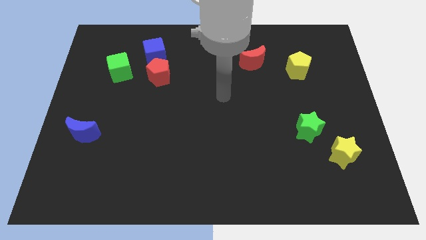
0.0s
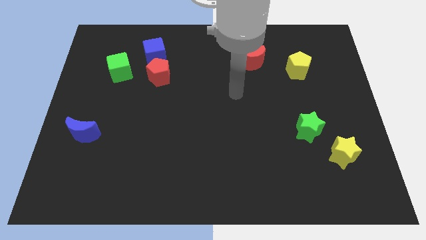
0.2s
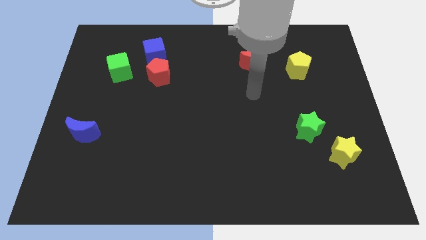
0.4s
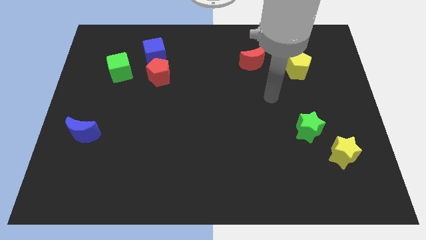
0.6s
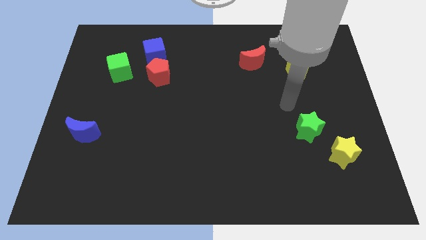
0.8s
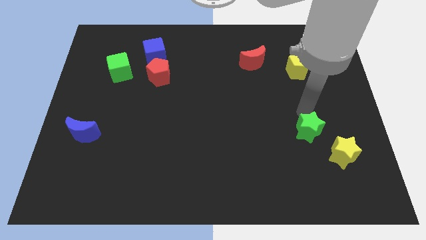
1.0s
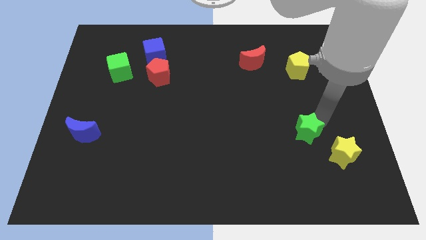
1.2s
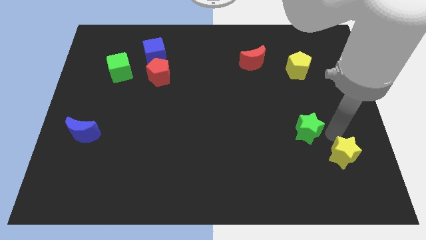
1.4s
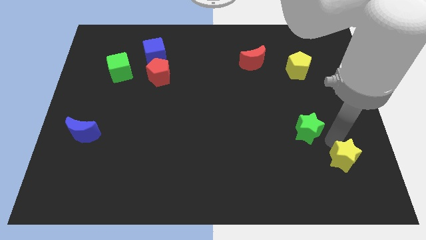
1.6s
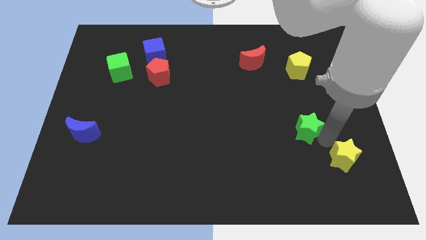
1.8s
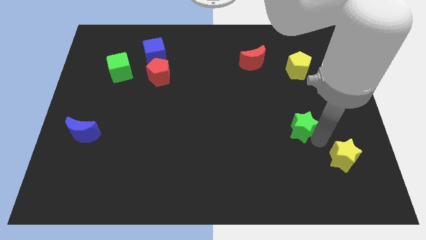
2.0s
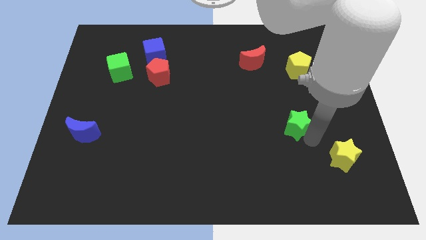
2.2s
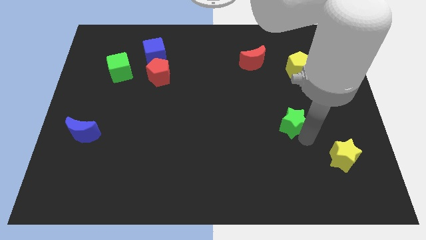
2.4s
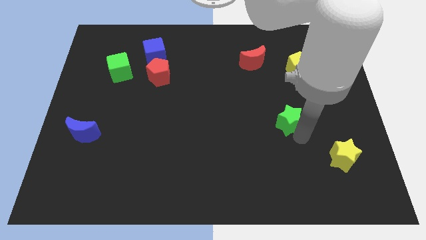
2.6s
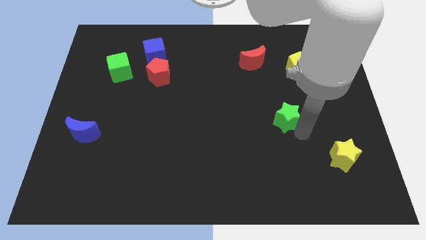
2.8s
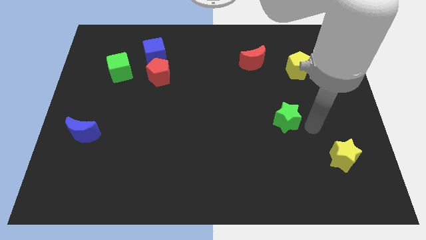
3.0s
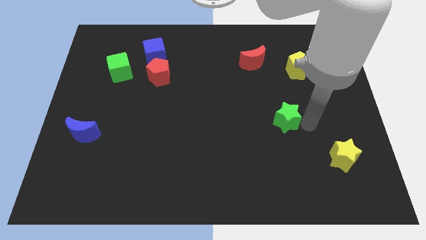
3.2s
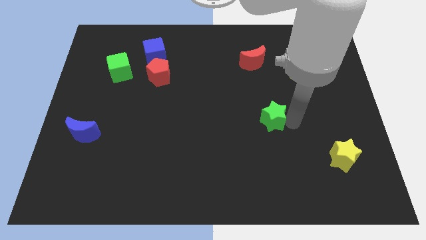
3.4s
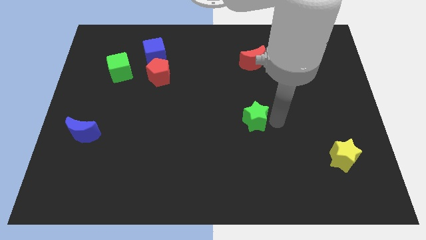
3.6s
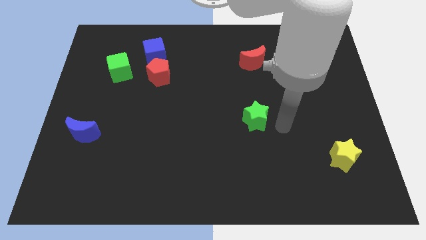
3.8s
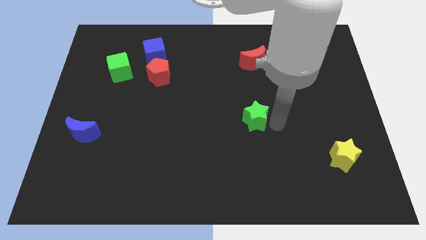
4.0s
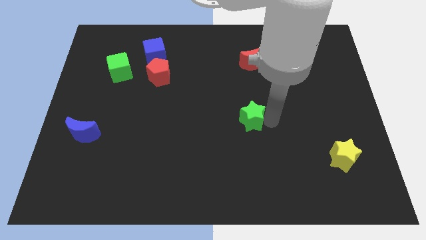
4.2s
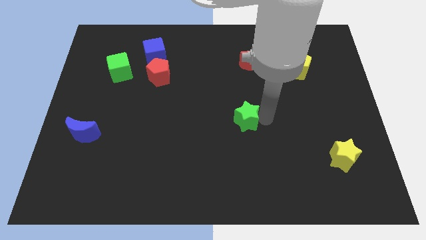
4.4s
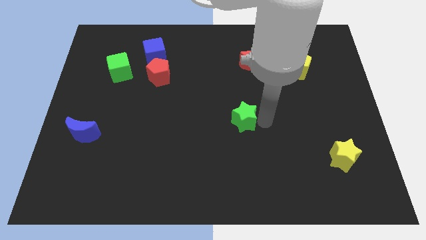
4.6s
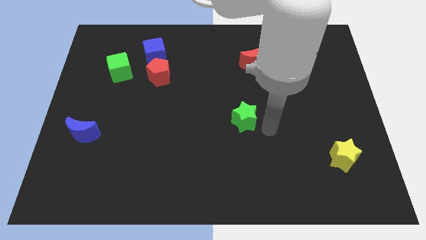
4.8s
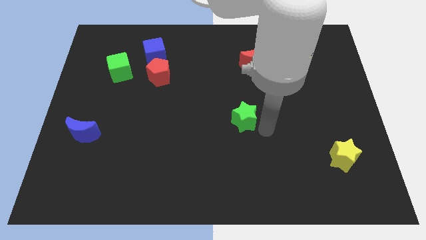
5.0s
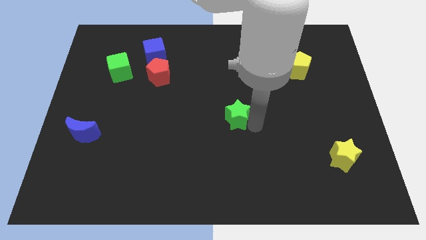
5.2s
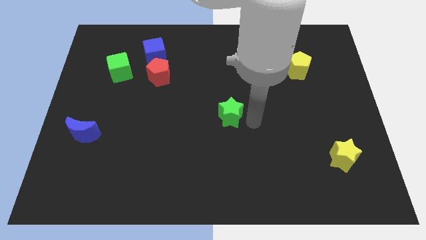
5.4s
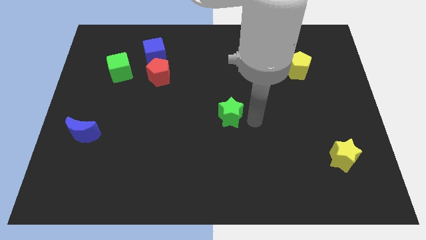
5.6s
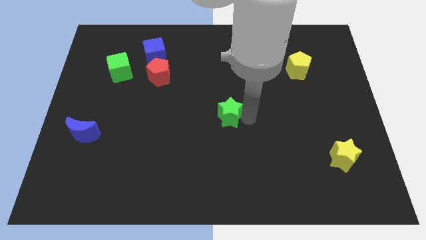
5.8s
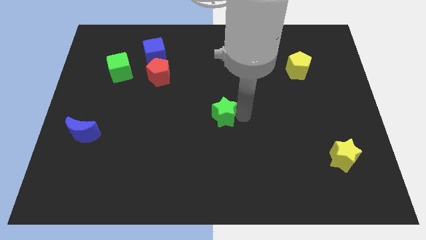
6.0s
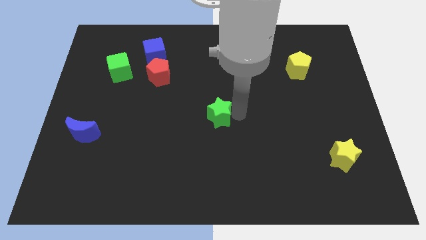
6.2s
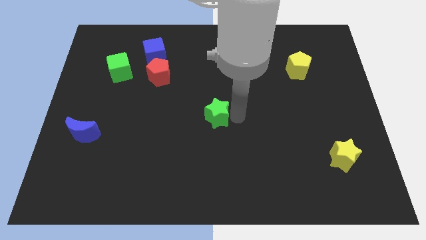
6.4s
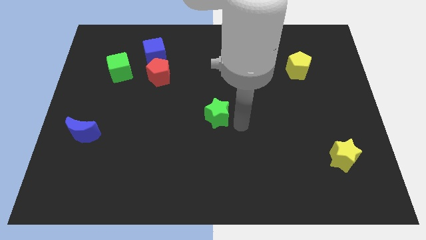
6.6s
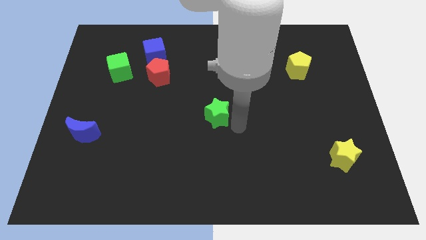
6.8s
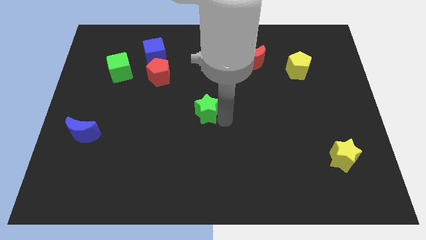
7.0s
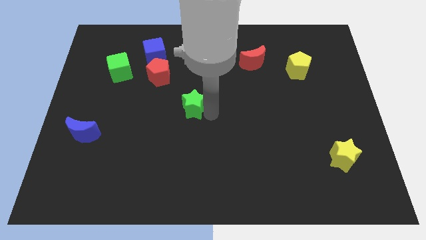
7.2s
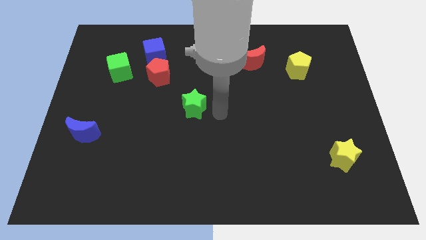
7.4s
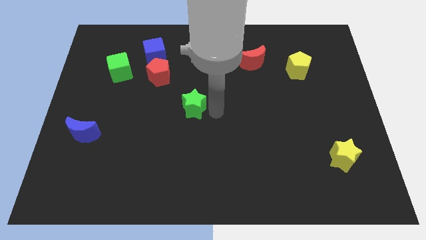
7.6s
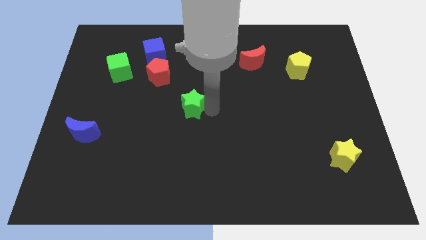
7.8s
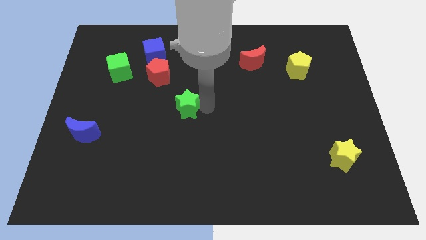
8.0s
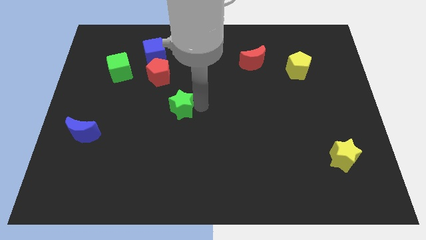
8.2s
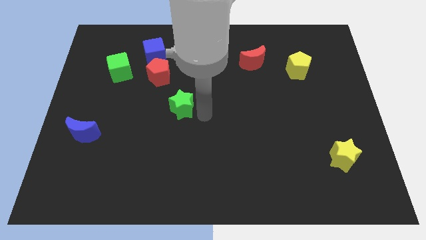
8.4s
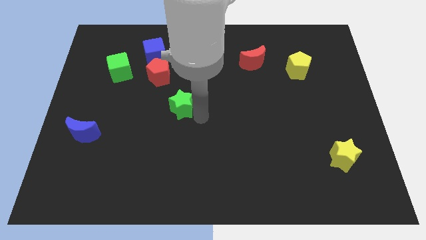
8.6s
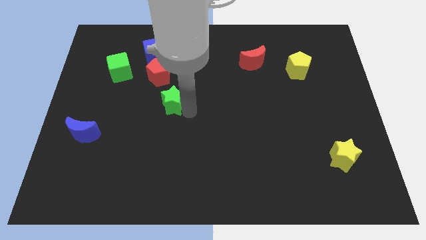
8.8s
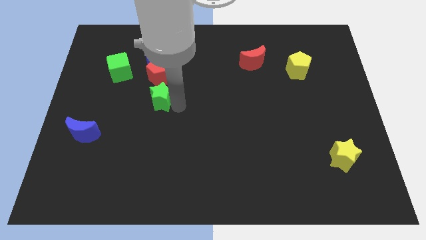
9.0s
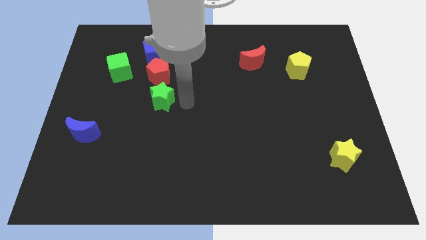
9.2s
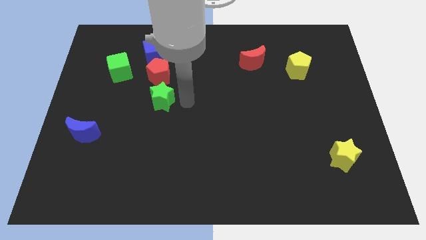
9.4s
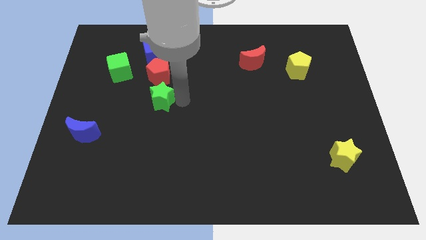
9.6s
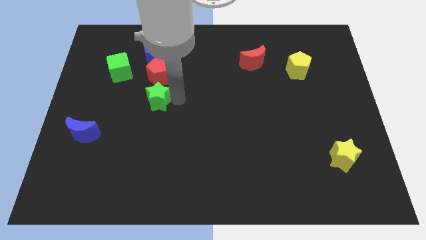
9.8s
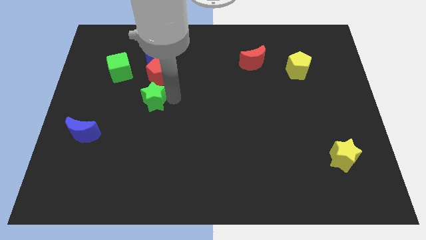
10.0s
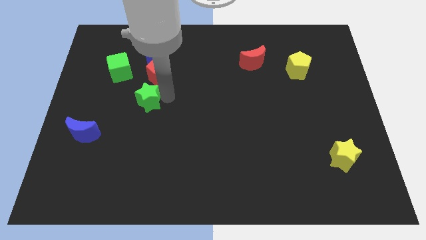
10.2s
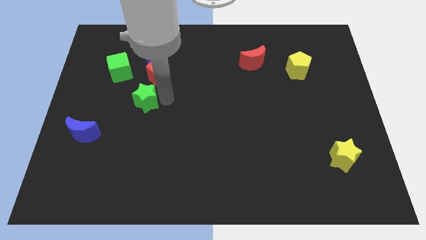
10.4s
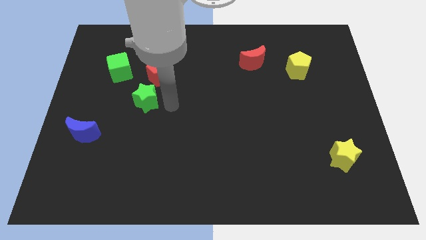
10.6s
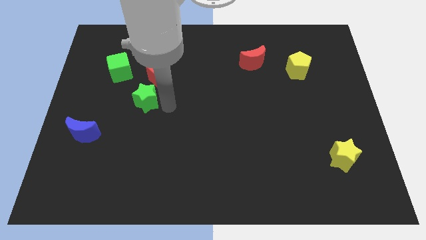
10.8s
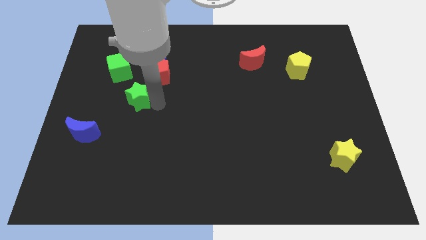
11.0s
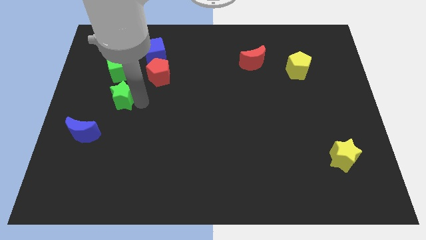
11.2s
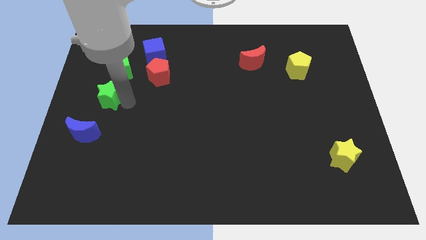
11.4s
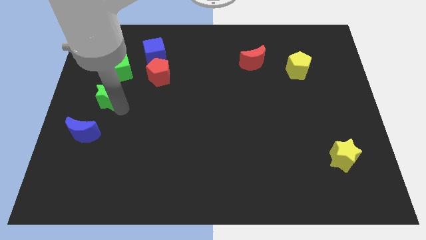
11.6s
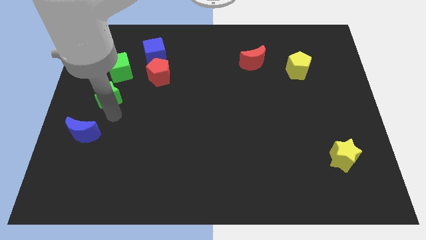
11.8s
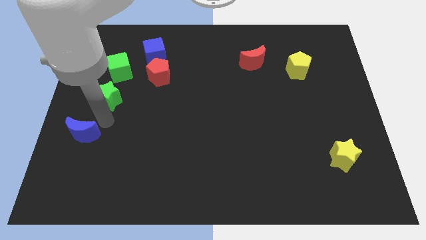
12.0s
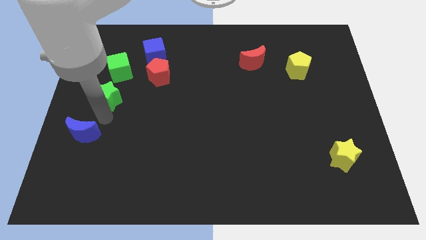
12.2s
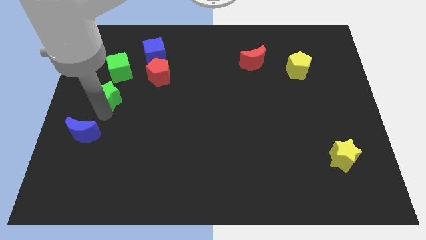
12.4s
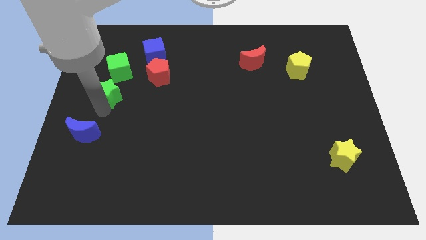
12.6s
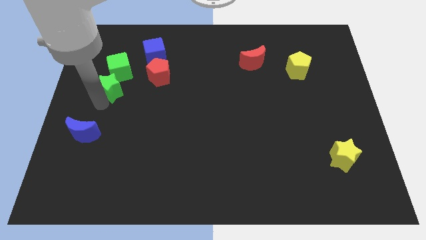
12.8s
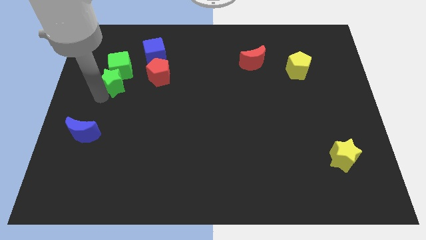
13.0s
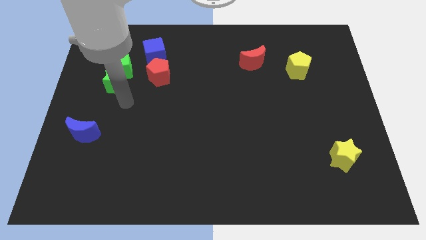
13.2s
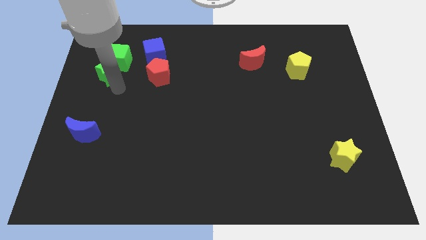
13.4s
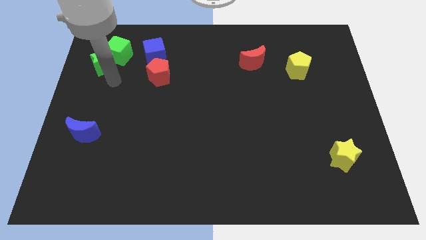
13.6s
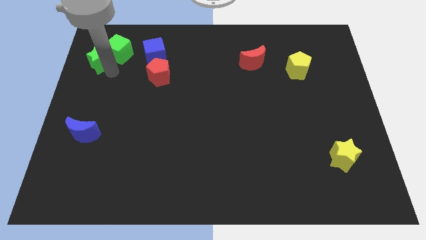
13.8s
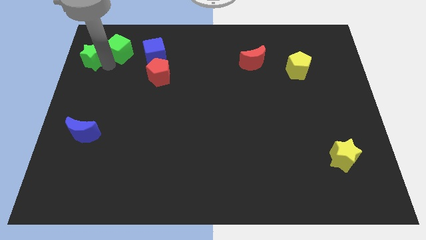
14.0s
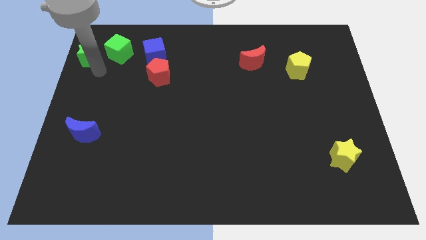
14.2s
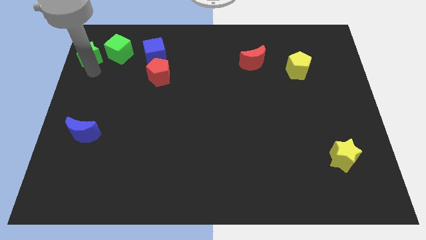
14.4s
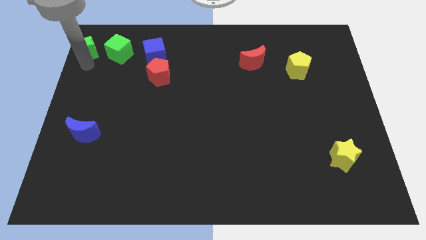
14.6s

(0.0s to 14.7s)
move the green star to the top left
